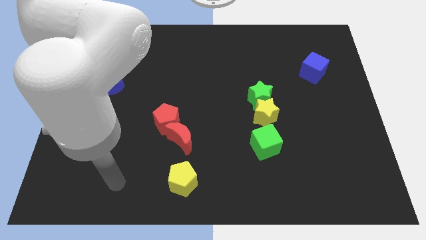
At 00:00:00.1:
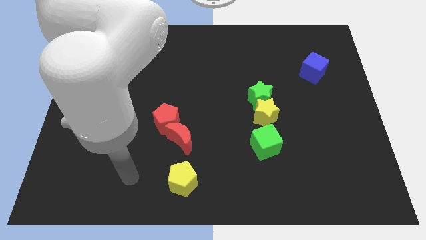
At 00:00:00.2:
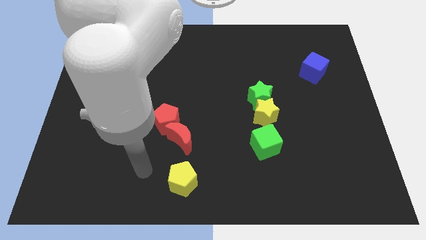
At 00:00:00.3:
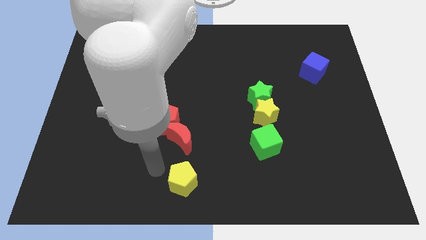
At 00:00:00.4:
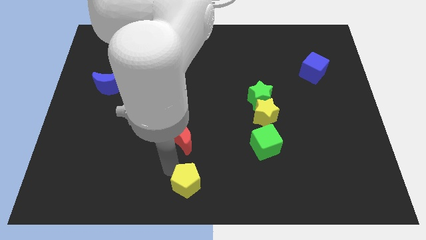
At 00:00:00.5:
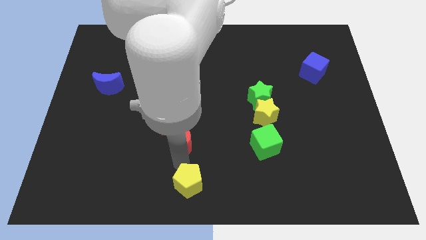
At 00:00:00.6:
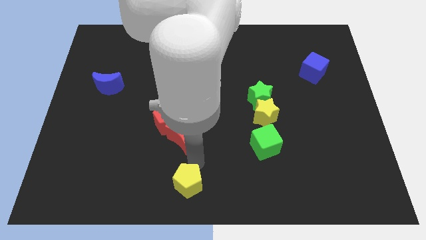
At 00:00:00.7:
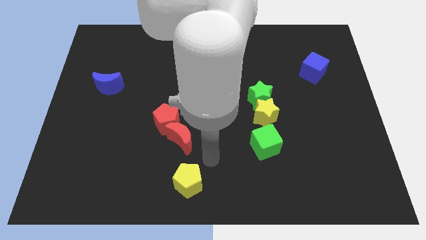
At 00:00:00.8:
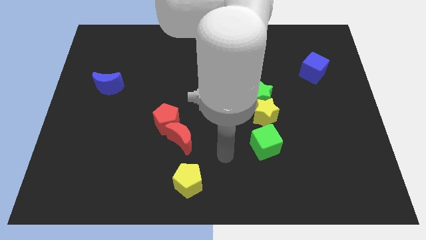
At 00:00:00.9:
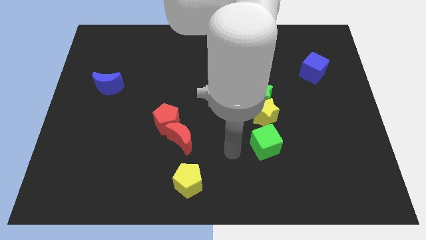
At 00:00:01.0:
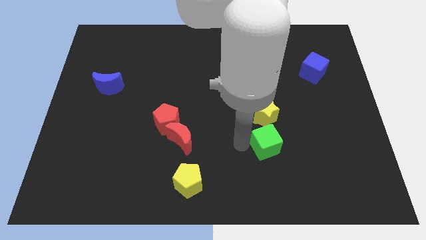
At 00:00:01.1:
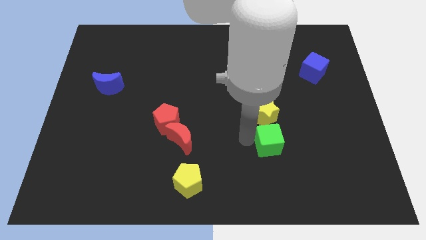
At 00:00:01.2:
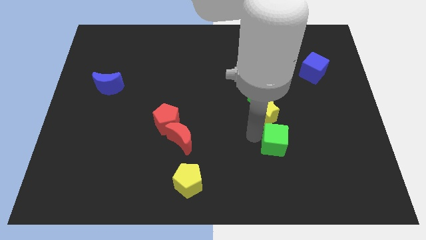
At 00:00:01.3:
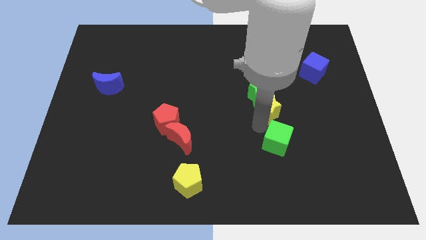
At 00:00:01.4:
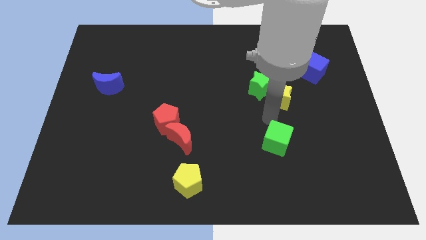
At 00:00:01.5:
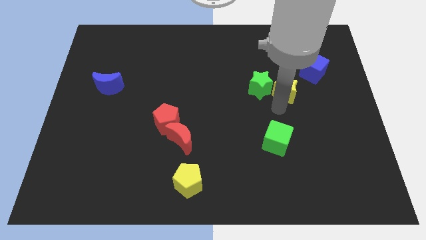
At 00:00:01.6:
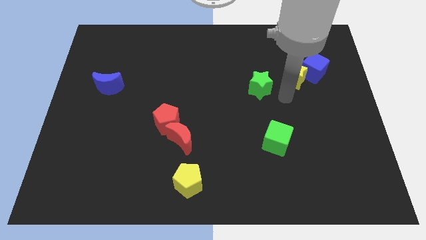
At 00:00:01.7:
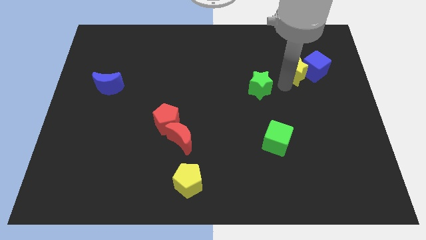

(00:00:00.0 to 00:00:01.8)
pull the green star apart from the yellow star

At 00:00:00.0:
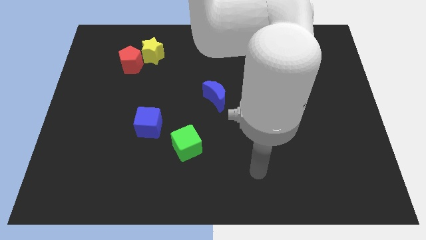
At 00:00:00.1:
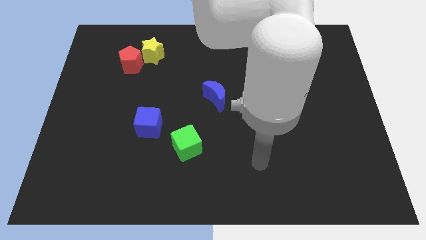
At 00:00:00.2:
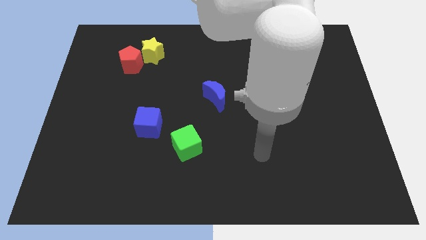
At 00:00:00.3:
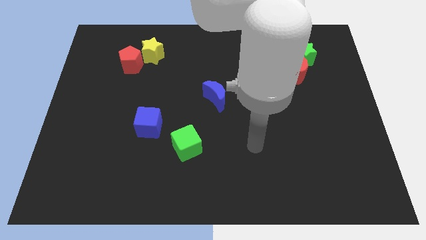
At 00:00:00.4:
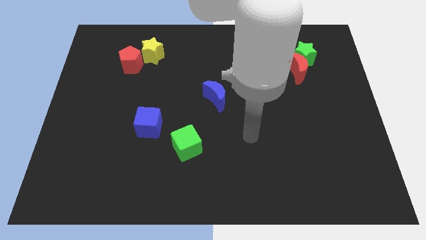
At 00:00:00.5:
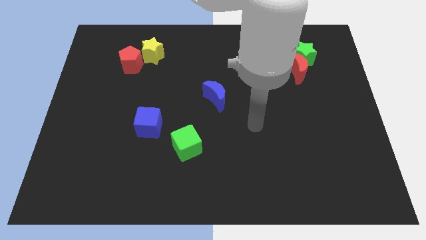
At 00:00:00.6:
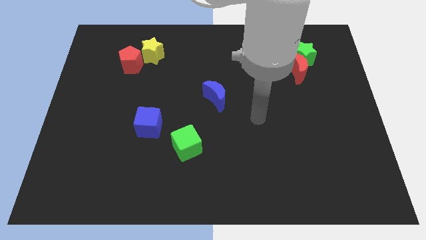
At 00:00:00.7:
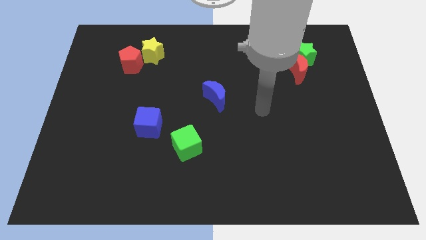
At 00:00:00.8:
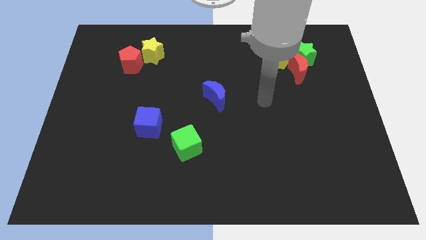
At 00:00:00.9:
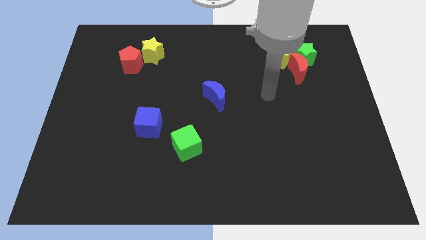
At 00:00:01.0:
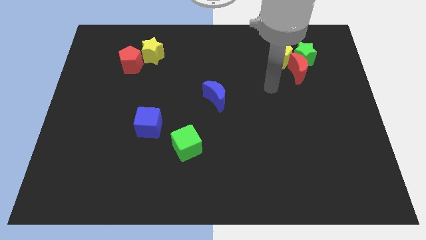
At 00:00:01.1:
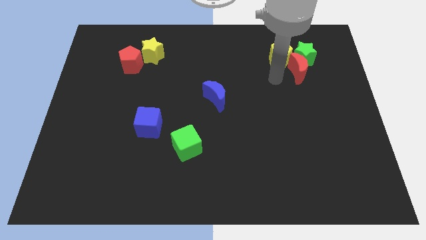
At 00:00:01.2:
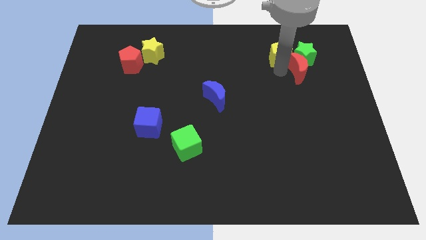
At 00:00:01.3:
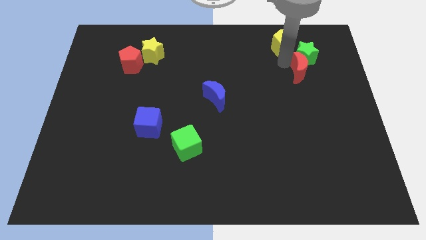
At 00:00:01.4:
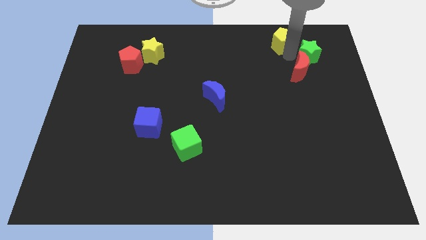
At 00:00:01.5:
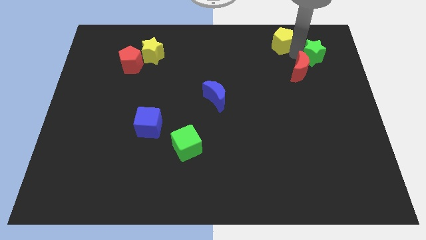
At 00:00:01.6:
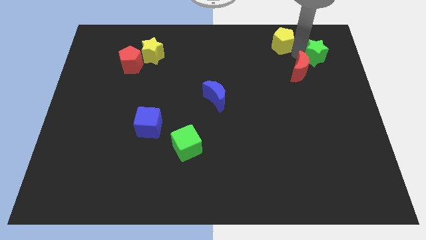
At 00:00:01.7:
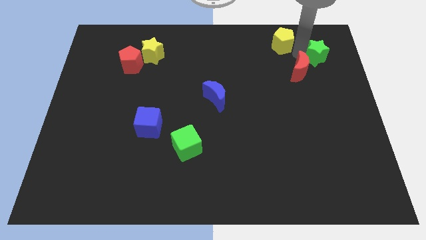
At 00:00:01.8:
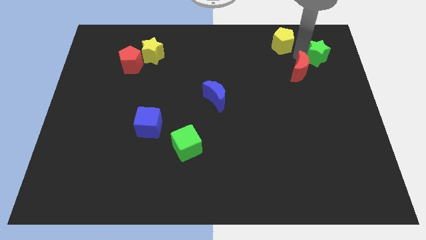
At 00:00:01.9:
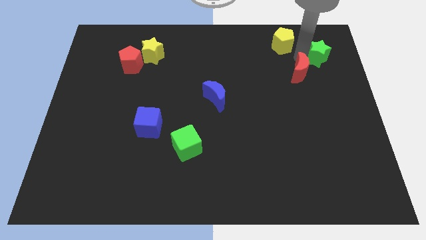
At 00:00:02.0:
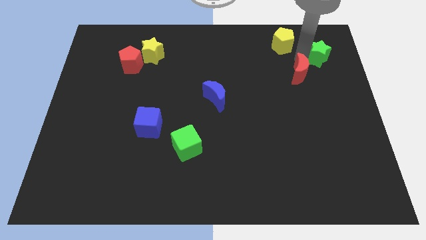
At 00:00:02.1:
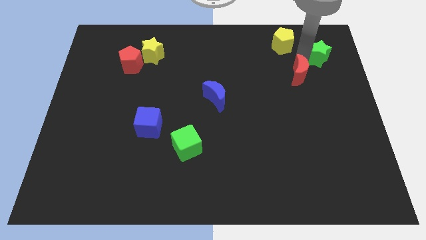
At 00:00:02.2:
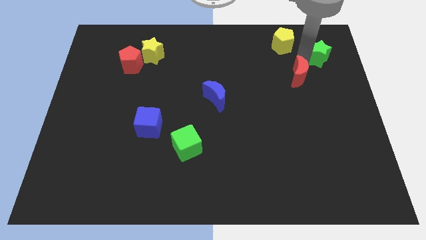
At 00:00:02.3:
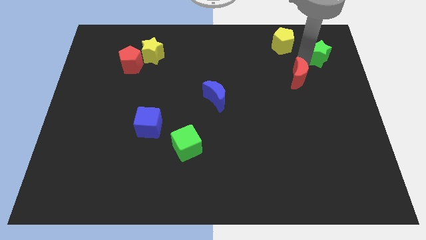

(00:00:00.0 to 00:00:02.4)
pull the red moon apart from the green star and yellow pentagon

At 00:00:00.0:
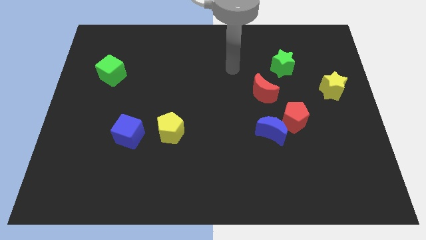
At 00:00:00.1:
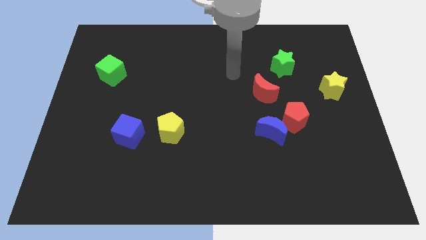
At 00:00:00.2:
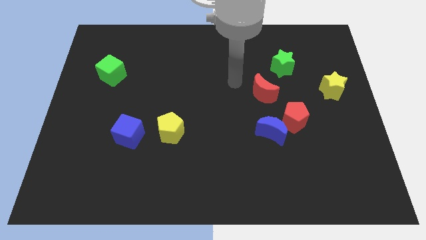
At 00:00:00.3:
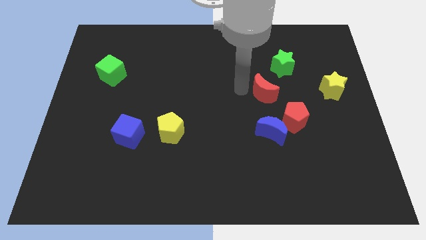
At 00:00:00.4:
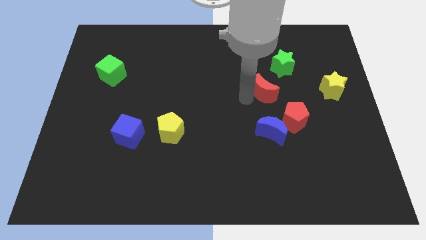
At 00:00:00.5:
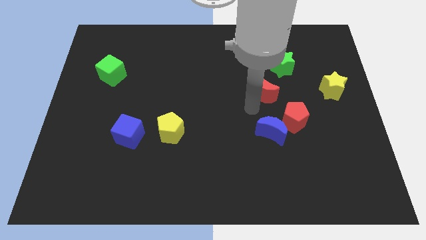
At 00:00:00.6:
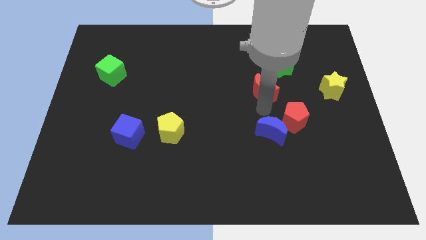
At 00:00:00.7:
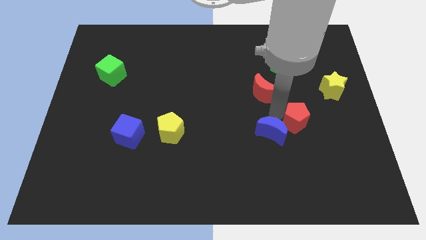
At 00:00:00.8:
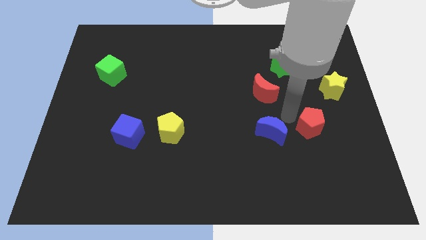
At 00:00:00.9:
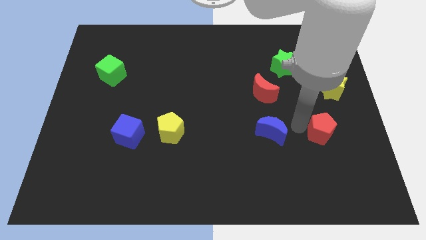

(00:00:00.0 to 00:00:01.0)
separate the blue moon from the red pentagon

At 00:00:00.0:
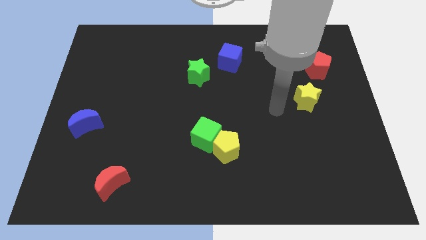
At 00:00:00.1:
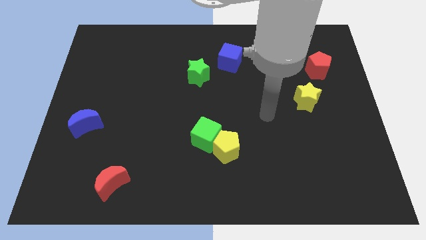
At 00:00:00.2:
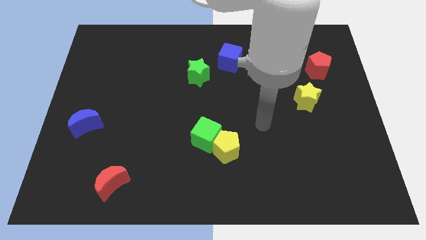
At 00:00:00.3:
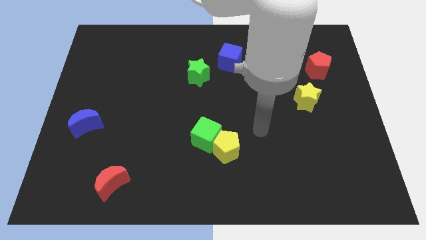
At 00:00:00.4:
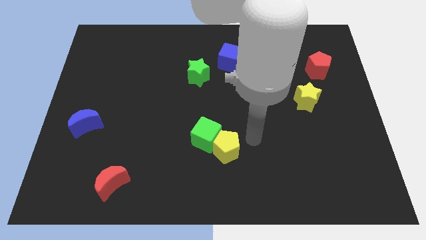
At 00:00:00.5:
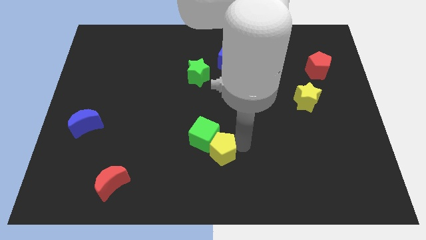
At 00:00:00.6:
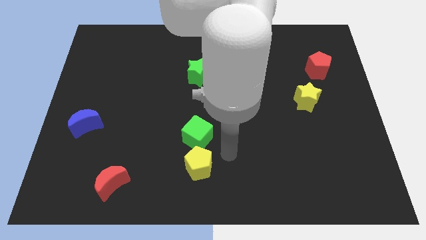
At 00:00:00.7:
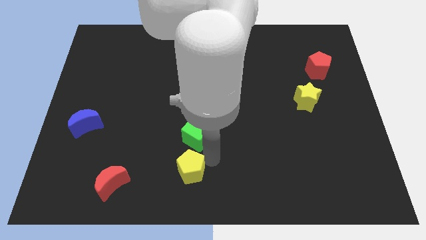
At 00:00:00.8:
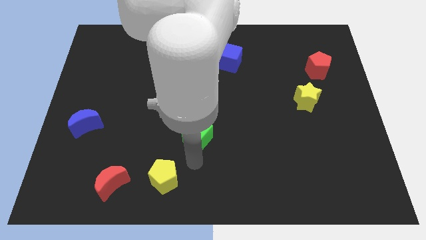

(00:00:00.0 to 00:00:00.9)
separate the green cube from the yellow pentagon

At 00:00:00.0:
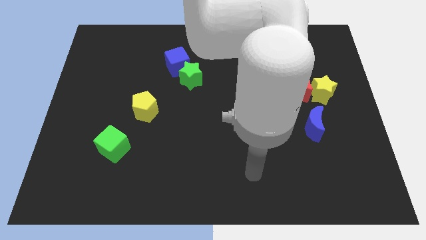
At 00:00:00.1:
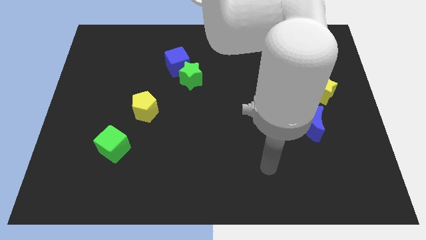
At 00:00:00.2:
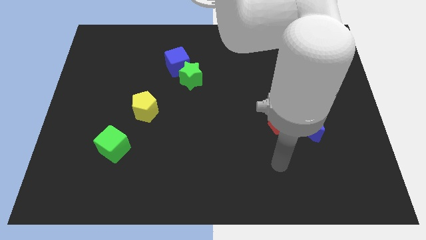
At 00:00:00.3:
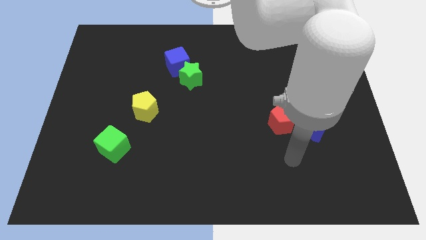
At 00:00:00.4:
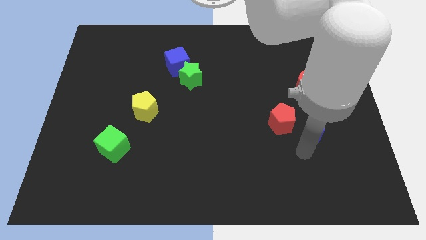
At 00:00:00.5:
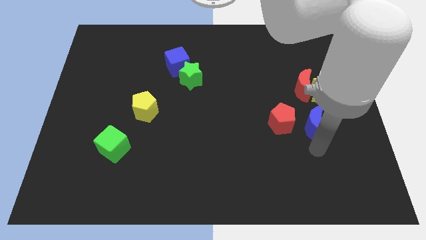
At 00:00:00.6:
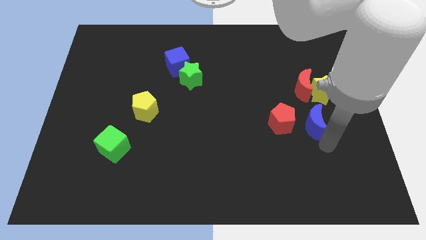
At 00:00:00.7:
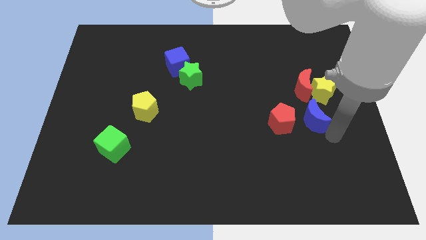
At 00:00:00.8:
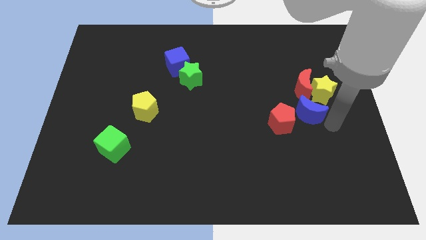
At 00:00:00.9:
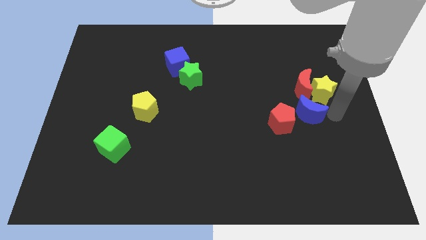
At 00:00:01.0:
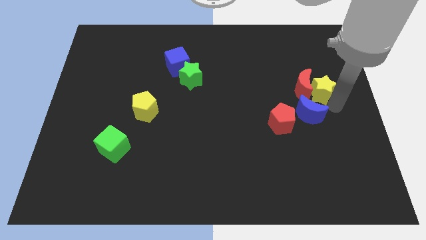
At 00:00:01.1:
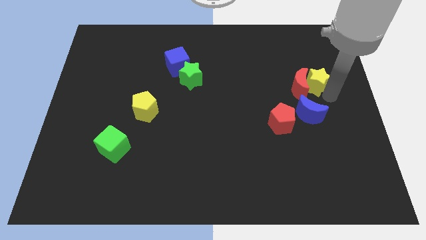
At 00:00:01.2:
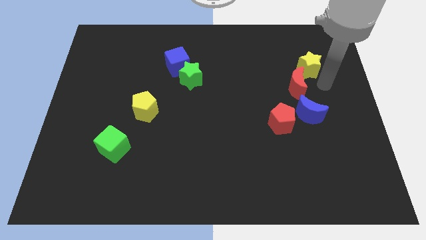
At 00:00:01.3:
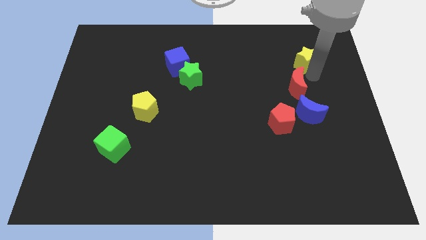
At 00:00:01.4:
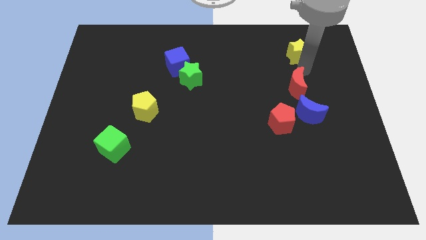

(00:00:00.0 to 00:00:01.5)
pull the red moon apart from the yellow star

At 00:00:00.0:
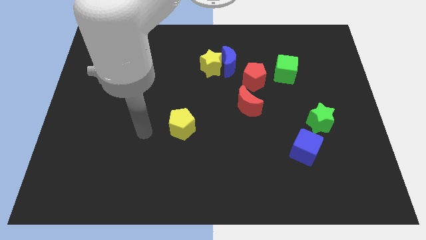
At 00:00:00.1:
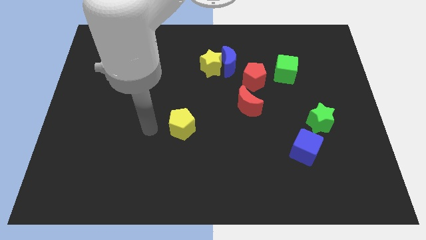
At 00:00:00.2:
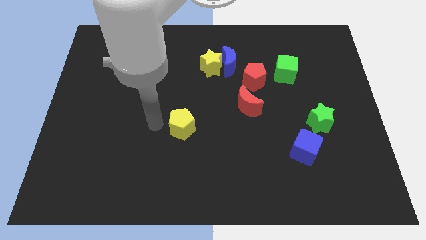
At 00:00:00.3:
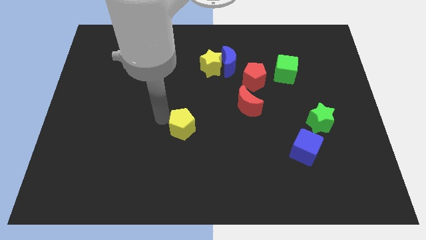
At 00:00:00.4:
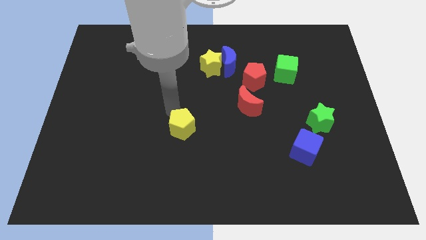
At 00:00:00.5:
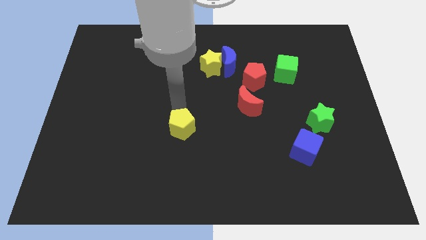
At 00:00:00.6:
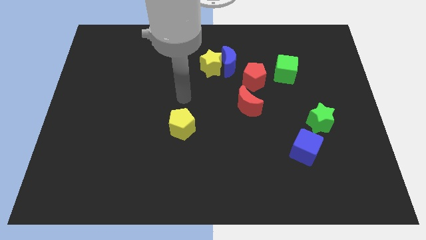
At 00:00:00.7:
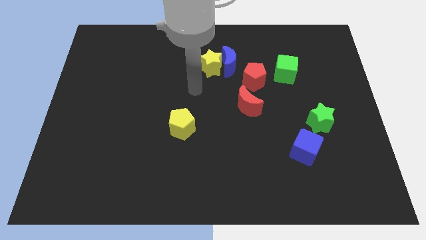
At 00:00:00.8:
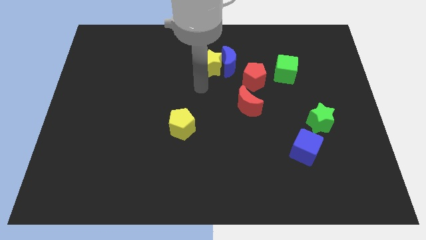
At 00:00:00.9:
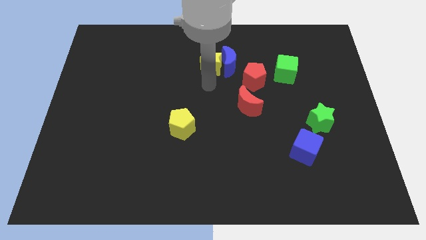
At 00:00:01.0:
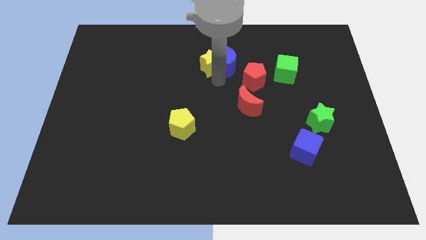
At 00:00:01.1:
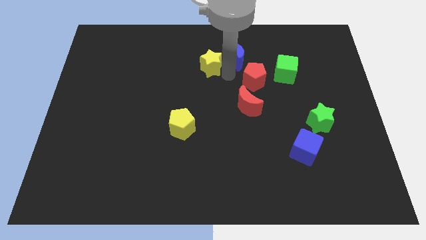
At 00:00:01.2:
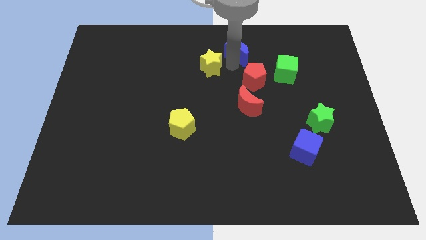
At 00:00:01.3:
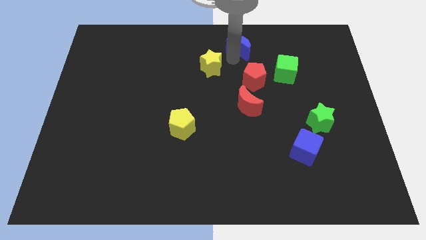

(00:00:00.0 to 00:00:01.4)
pull the yellow star apart from the blue moon
